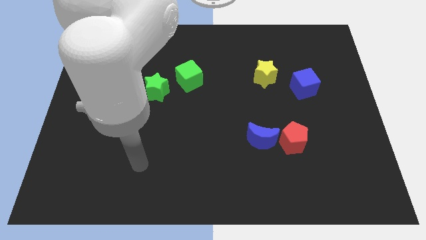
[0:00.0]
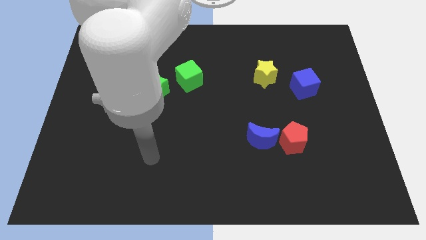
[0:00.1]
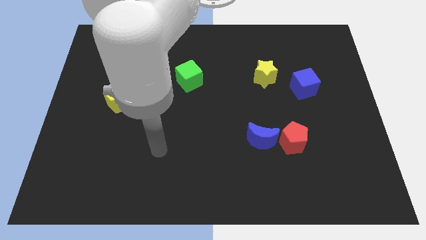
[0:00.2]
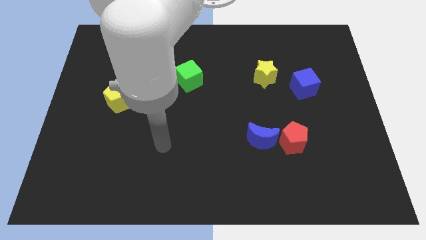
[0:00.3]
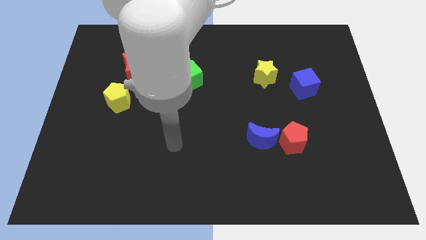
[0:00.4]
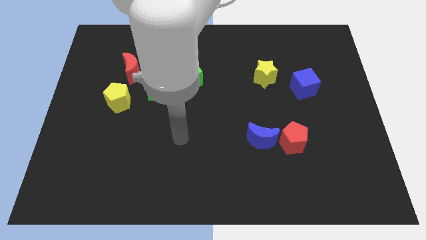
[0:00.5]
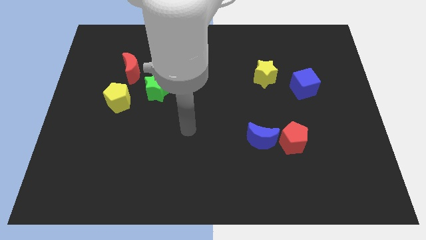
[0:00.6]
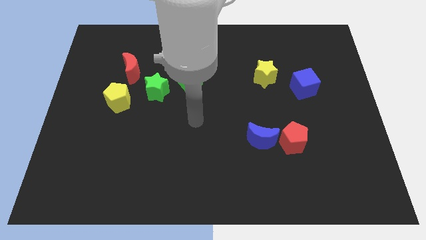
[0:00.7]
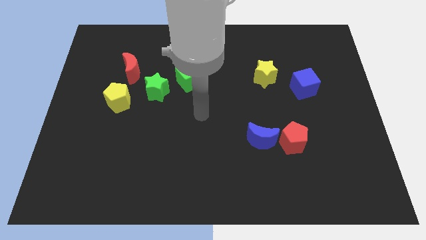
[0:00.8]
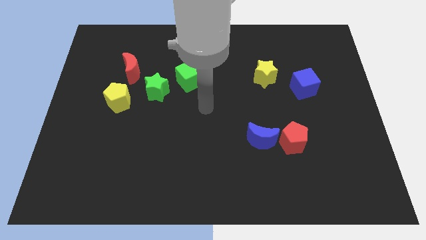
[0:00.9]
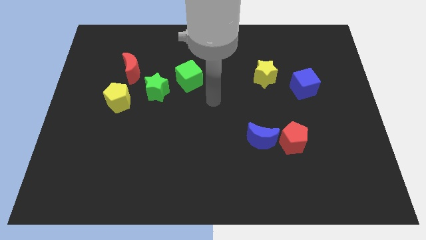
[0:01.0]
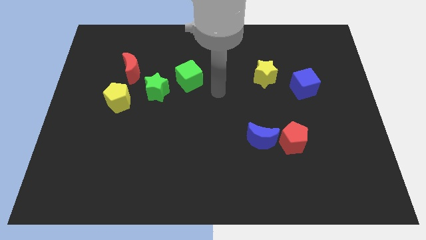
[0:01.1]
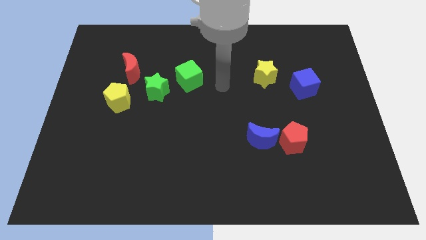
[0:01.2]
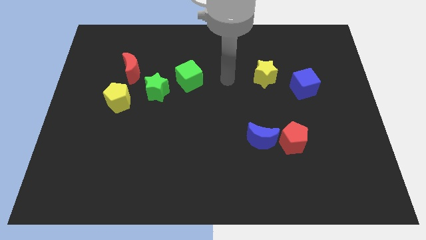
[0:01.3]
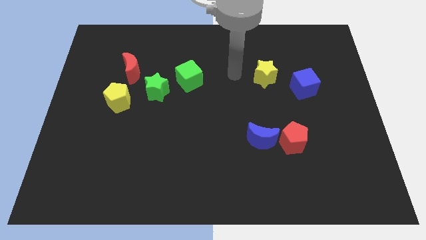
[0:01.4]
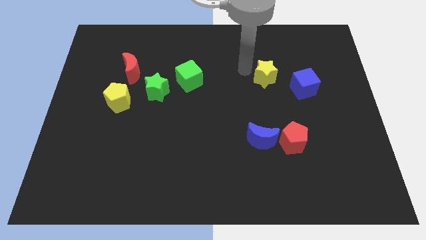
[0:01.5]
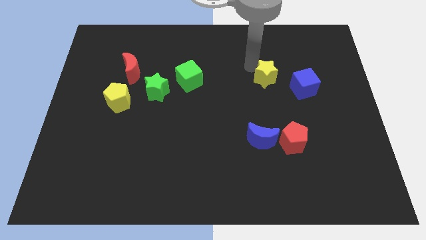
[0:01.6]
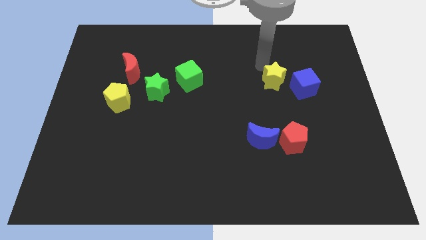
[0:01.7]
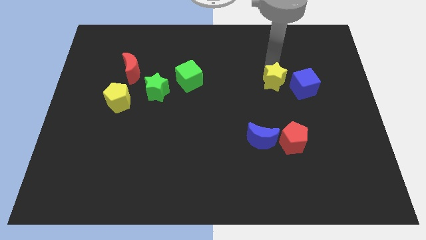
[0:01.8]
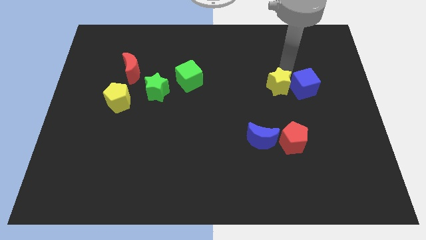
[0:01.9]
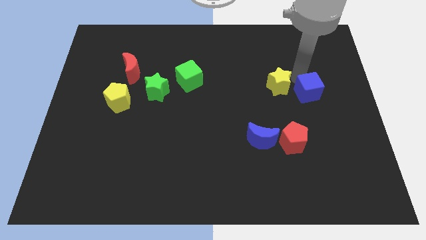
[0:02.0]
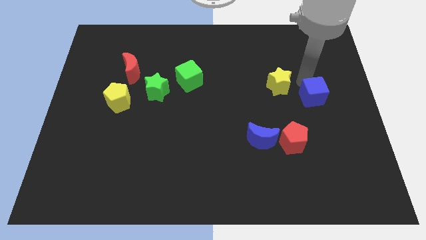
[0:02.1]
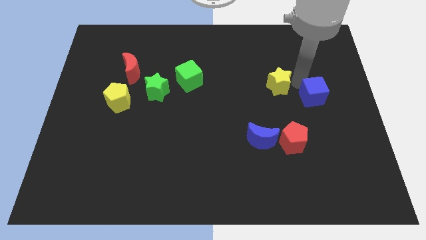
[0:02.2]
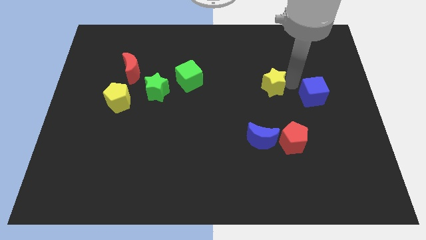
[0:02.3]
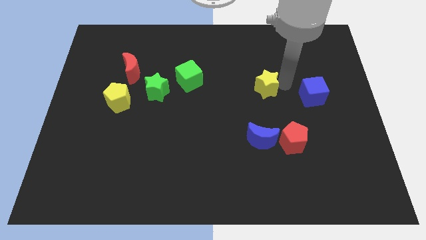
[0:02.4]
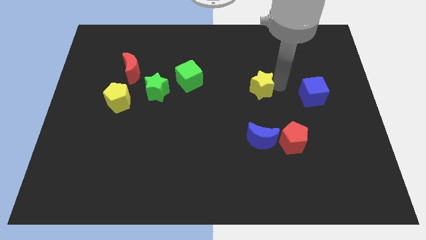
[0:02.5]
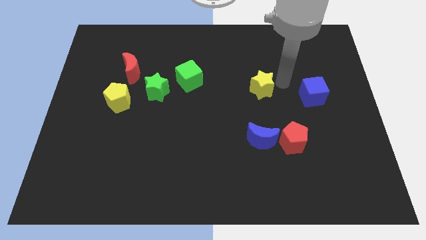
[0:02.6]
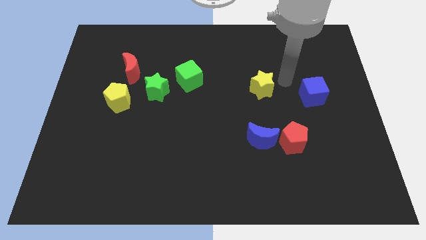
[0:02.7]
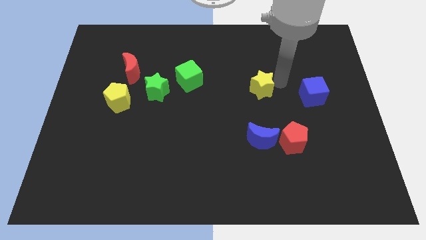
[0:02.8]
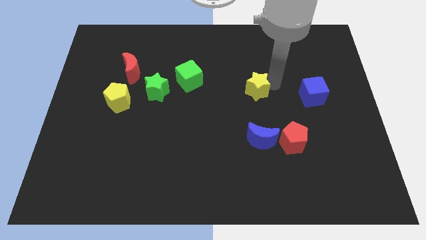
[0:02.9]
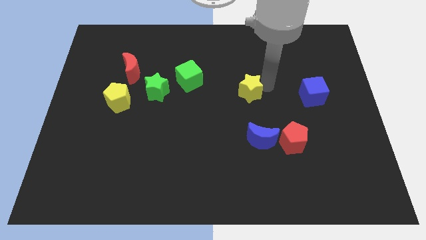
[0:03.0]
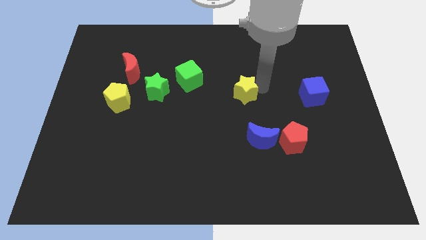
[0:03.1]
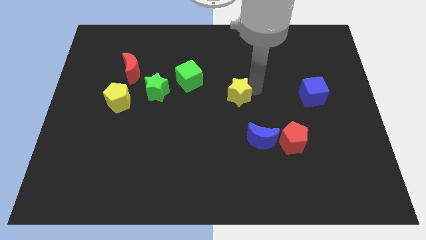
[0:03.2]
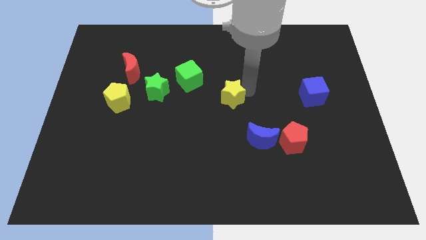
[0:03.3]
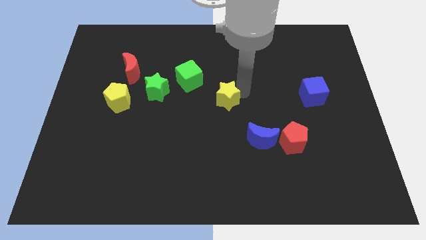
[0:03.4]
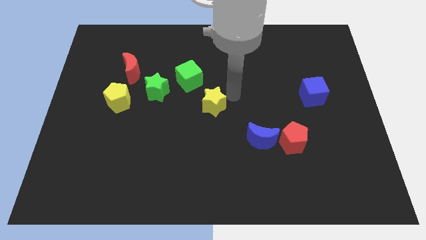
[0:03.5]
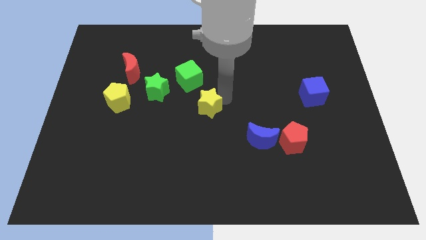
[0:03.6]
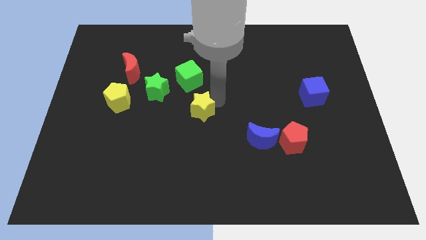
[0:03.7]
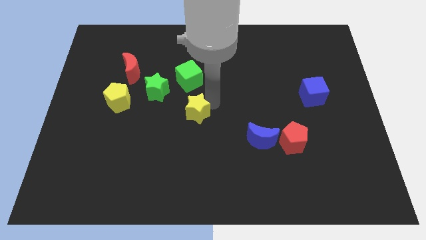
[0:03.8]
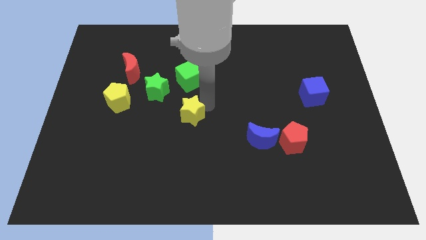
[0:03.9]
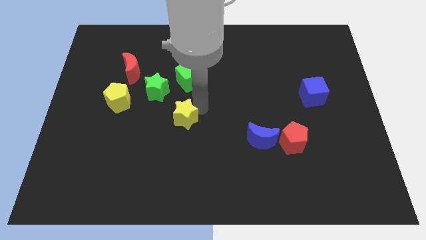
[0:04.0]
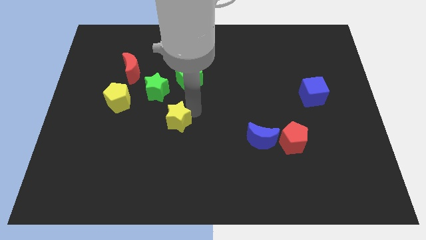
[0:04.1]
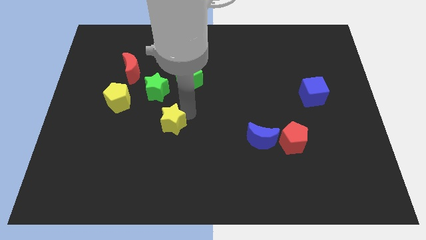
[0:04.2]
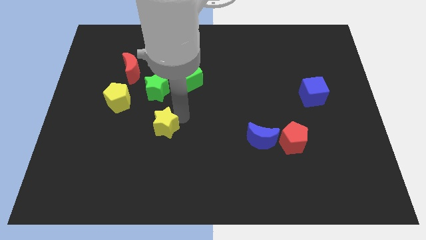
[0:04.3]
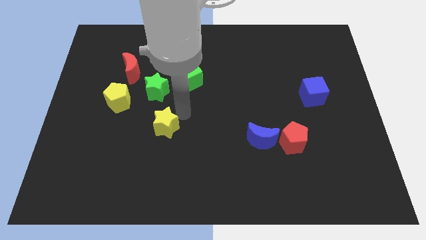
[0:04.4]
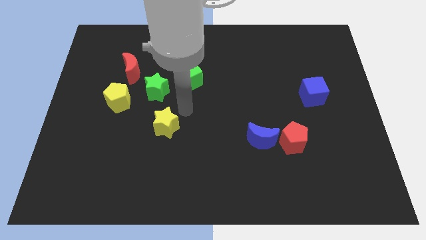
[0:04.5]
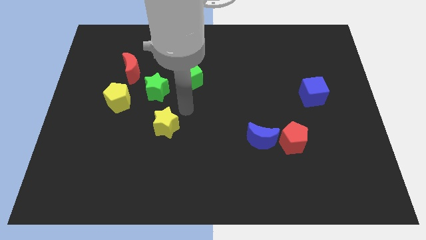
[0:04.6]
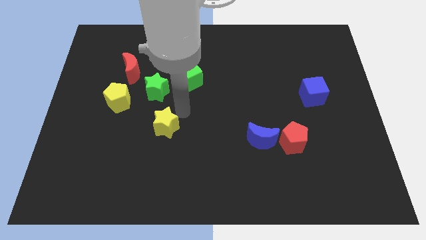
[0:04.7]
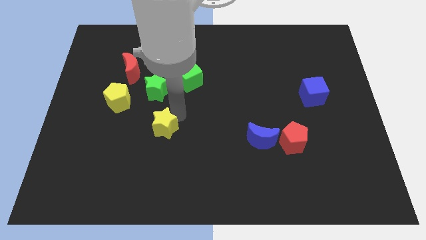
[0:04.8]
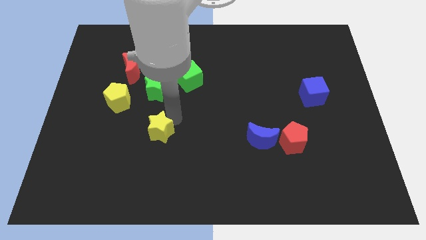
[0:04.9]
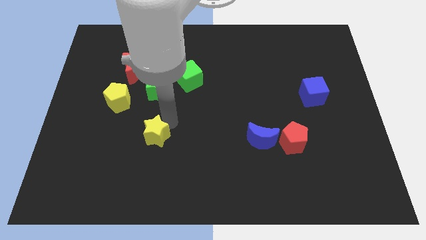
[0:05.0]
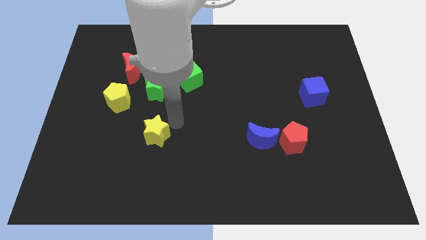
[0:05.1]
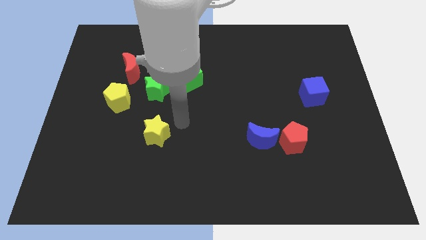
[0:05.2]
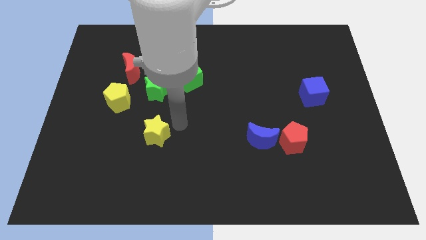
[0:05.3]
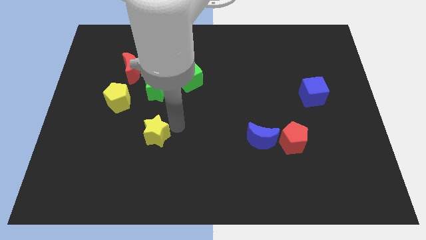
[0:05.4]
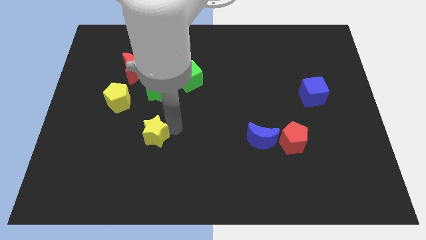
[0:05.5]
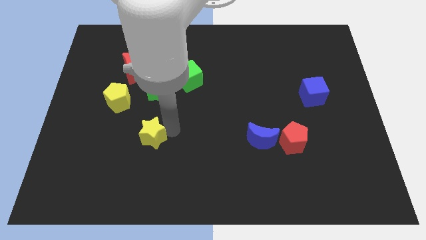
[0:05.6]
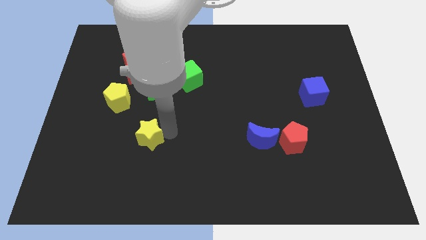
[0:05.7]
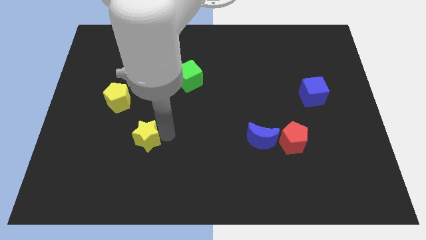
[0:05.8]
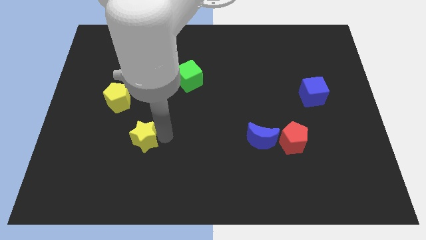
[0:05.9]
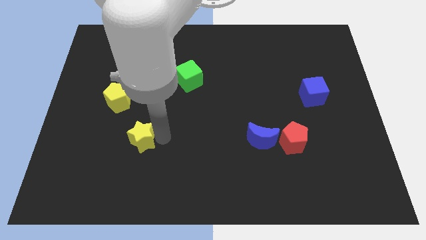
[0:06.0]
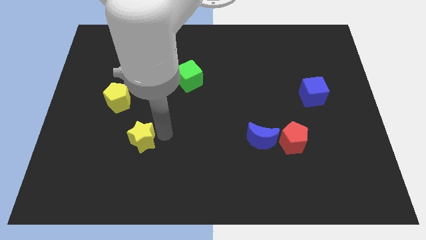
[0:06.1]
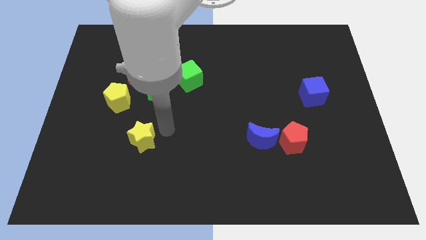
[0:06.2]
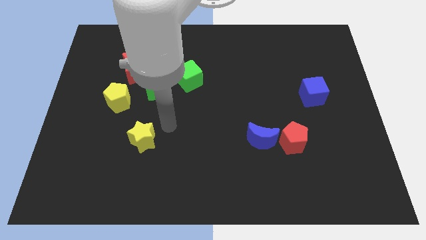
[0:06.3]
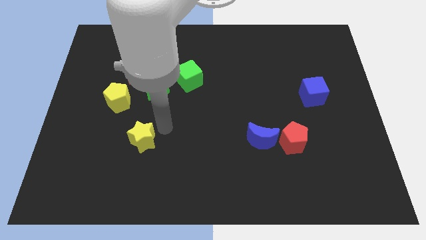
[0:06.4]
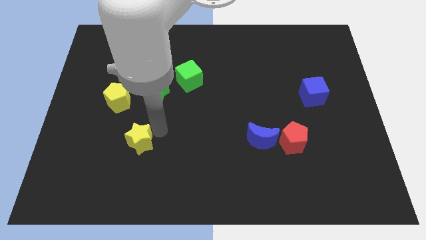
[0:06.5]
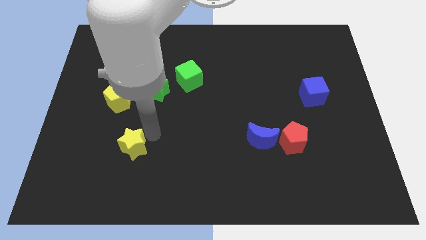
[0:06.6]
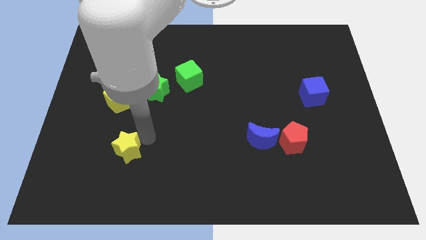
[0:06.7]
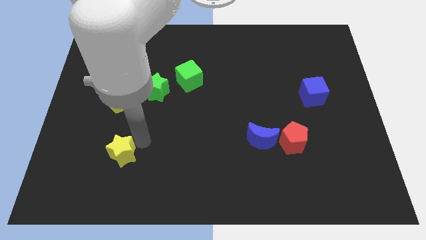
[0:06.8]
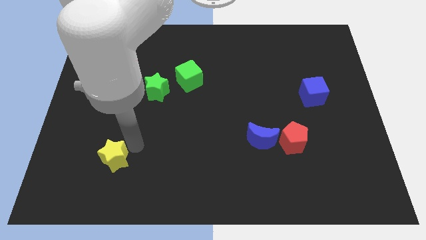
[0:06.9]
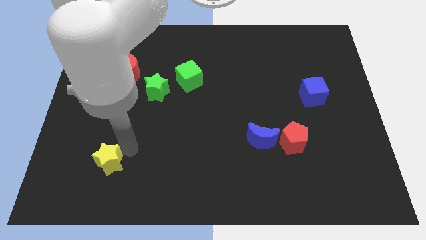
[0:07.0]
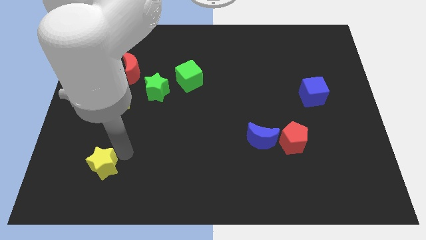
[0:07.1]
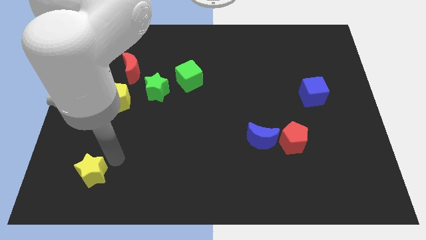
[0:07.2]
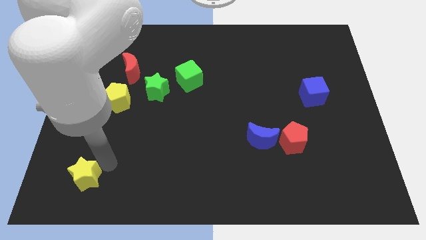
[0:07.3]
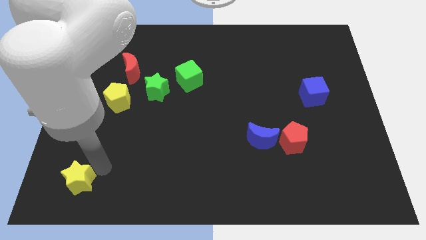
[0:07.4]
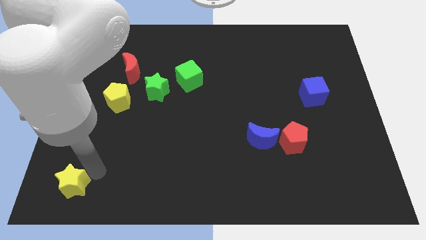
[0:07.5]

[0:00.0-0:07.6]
slide the yellow star to the lower left corner

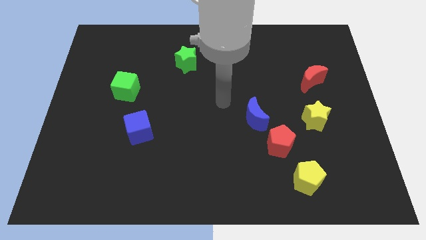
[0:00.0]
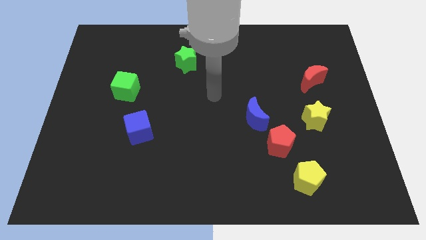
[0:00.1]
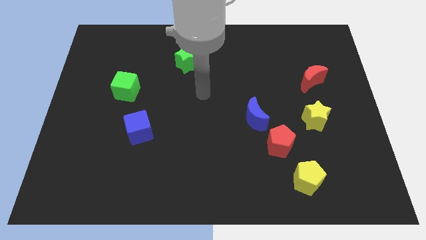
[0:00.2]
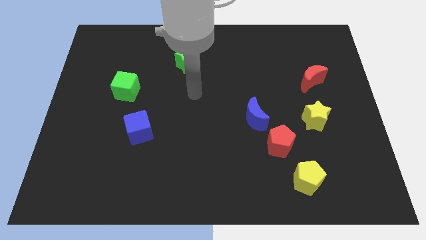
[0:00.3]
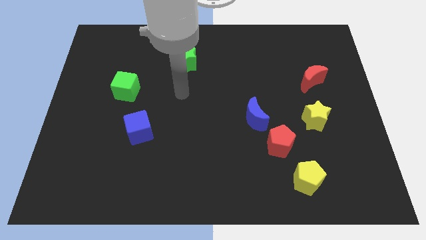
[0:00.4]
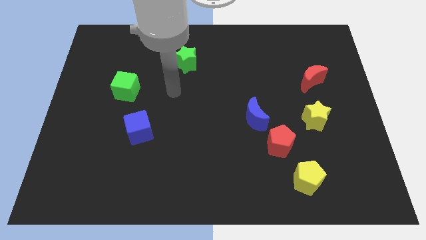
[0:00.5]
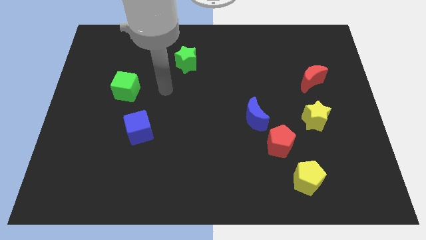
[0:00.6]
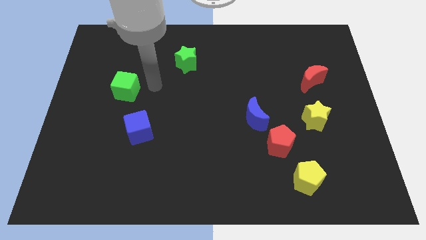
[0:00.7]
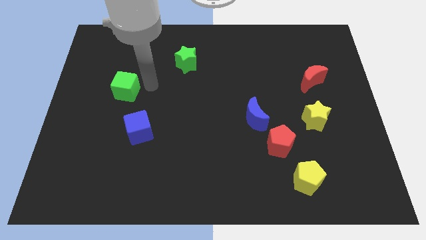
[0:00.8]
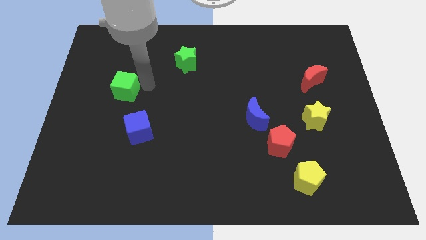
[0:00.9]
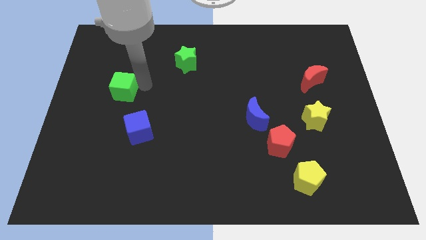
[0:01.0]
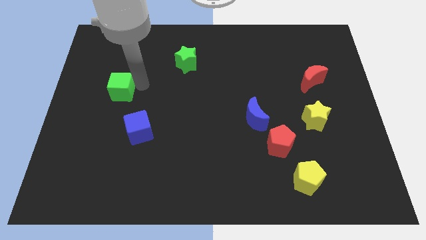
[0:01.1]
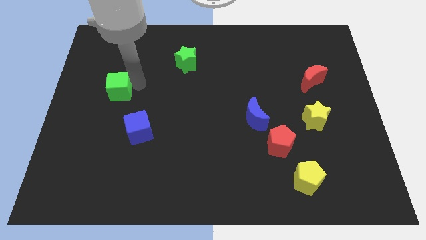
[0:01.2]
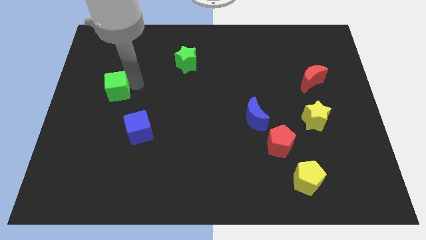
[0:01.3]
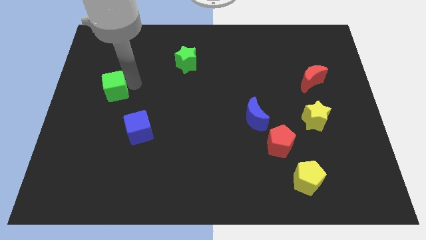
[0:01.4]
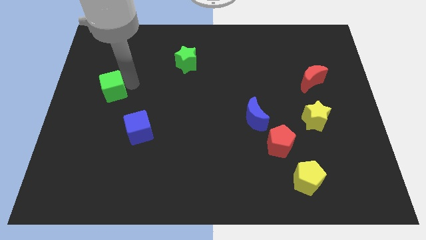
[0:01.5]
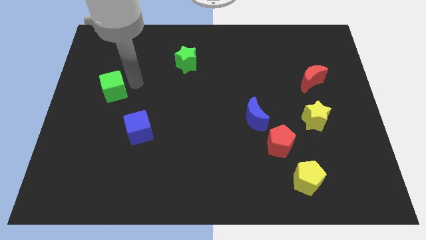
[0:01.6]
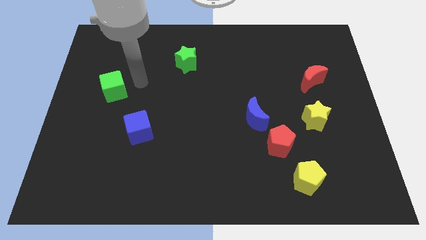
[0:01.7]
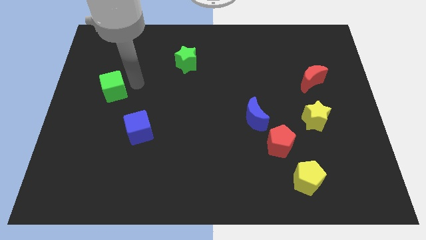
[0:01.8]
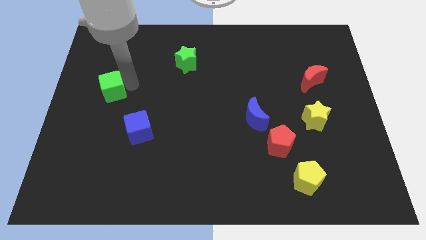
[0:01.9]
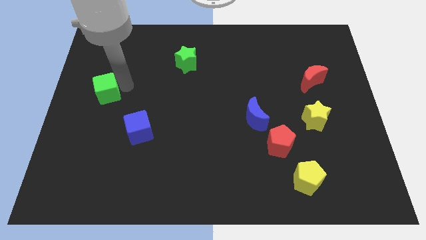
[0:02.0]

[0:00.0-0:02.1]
slide the green cube to the left side of the board
